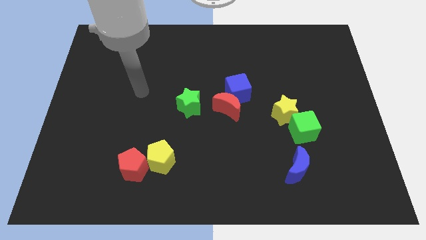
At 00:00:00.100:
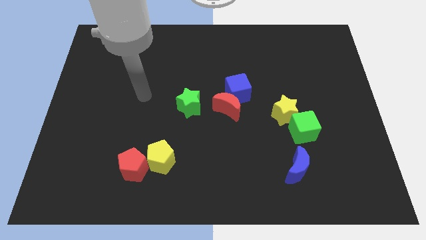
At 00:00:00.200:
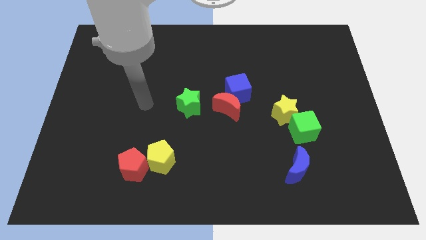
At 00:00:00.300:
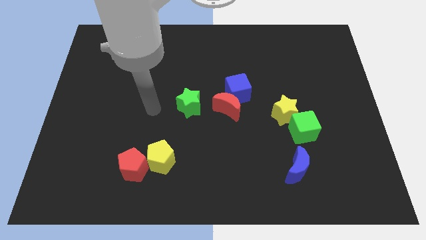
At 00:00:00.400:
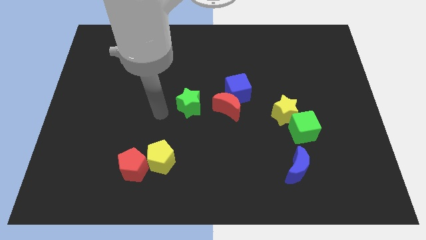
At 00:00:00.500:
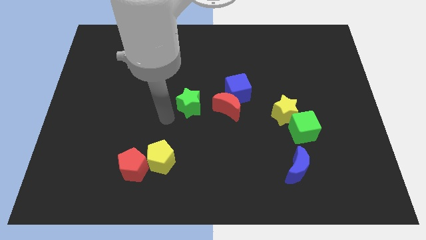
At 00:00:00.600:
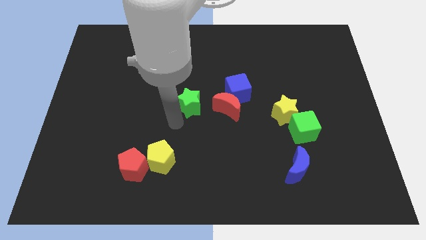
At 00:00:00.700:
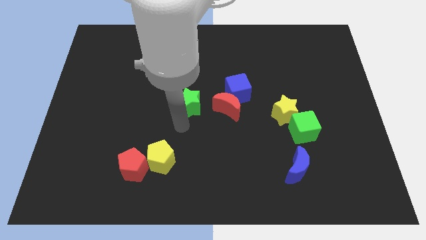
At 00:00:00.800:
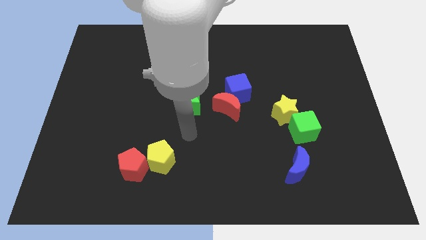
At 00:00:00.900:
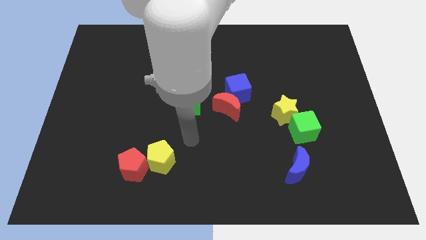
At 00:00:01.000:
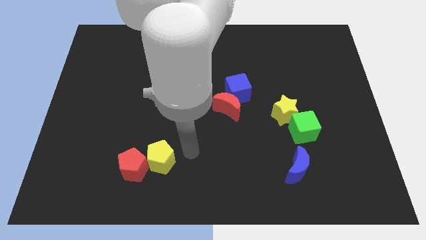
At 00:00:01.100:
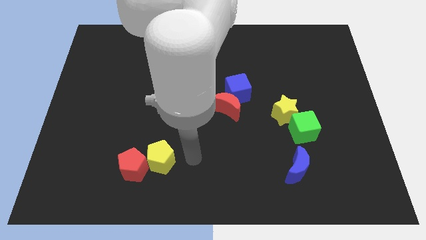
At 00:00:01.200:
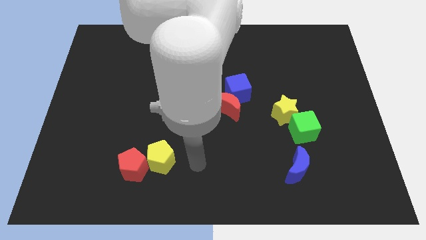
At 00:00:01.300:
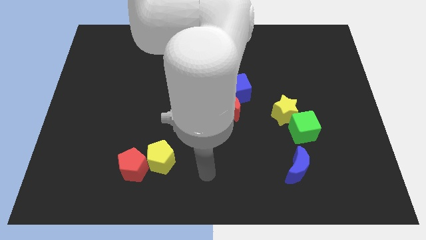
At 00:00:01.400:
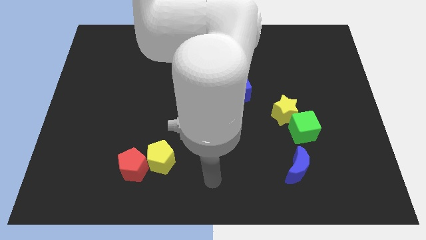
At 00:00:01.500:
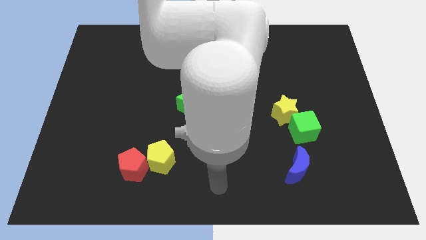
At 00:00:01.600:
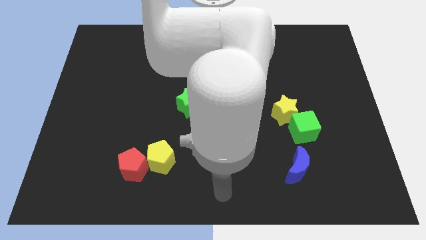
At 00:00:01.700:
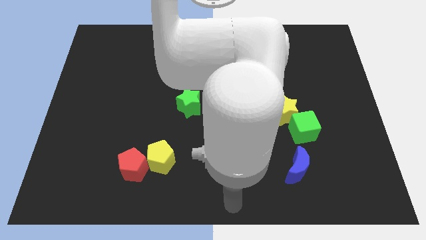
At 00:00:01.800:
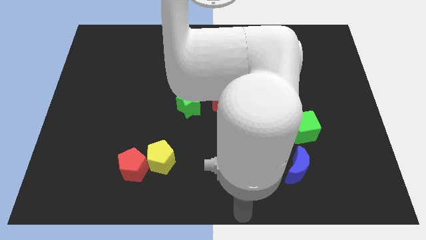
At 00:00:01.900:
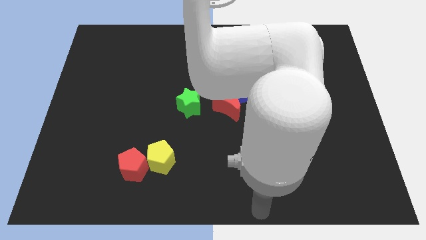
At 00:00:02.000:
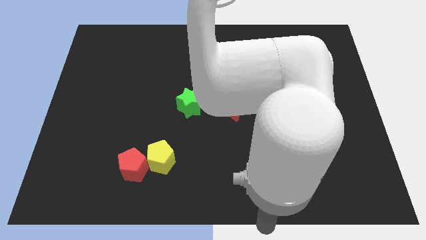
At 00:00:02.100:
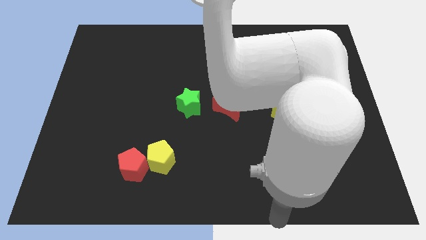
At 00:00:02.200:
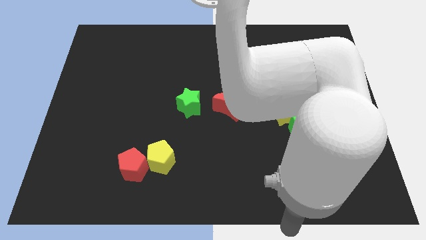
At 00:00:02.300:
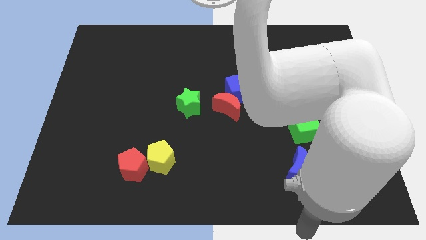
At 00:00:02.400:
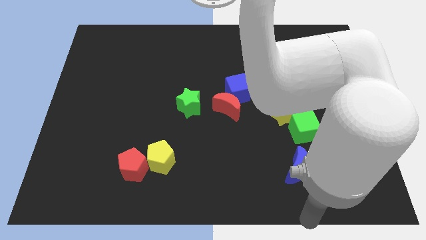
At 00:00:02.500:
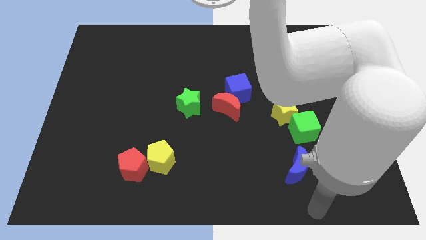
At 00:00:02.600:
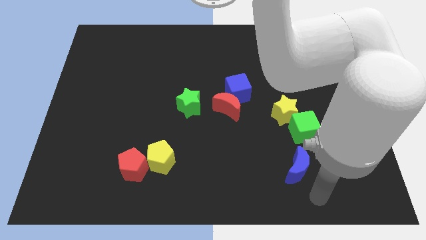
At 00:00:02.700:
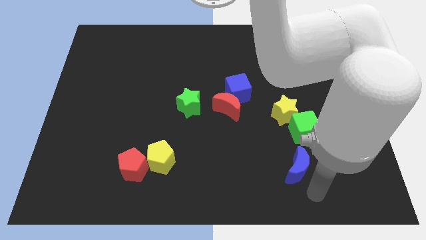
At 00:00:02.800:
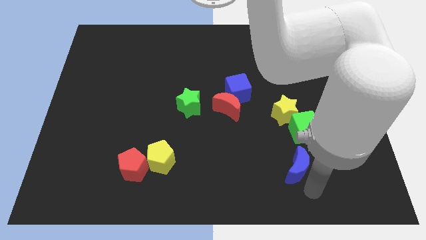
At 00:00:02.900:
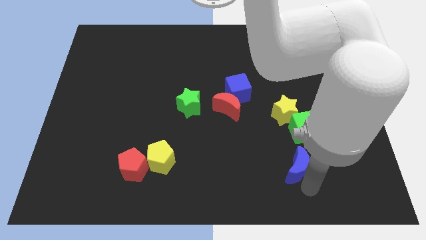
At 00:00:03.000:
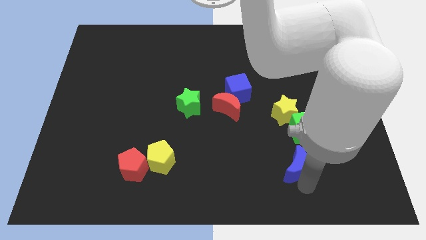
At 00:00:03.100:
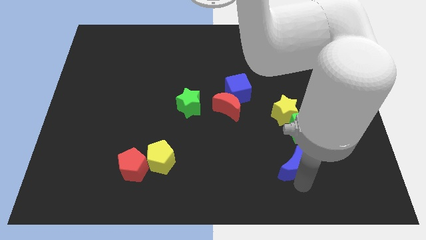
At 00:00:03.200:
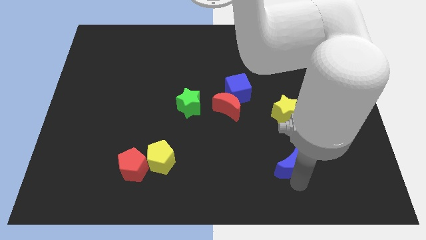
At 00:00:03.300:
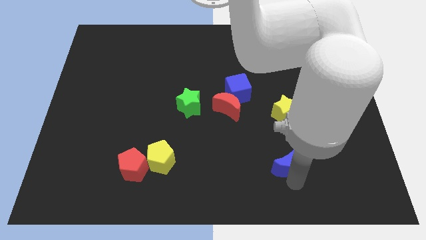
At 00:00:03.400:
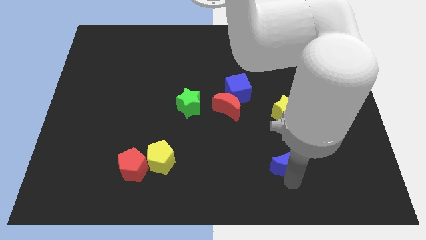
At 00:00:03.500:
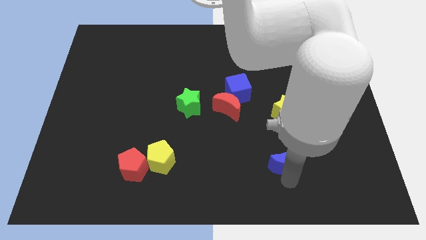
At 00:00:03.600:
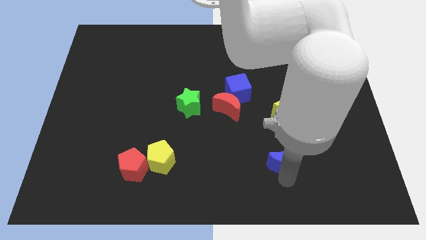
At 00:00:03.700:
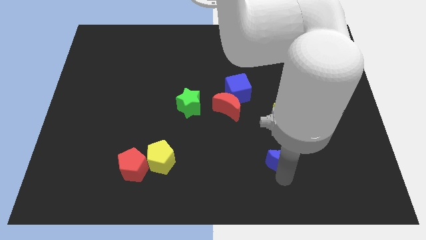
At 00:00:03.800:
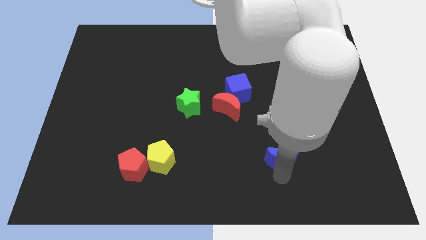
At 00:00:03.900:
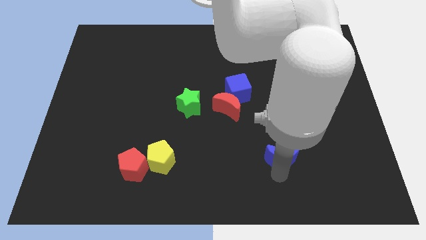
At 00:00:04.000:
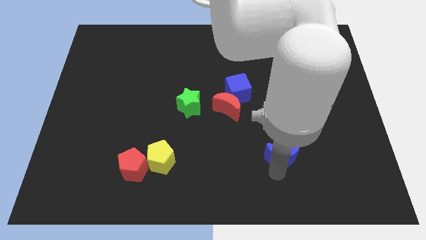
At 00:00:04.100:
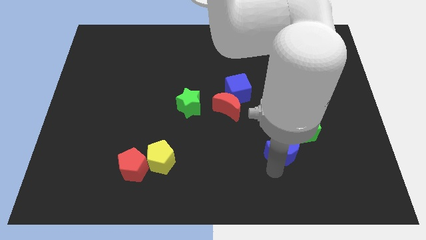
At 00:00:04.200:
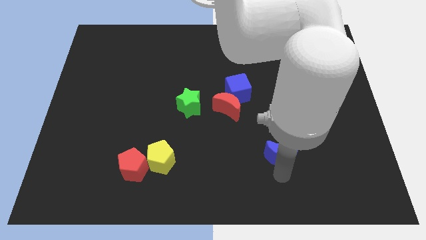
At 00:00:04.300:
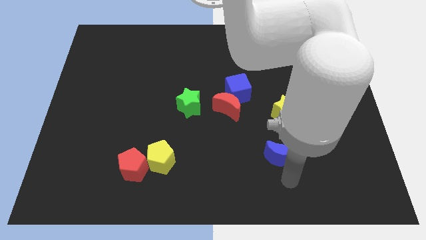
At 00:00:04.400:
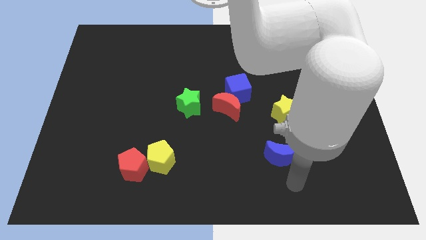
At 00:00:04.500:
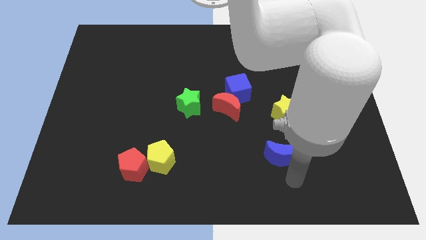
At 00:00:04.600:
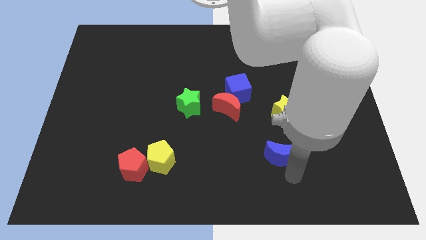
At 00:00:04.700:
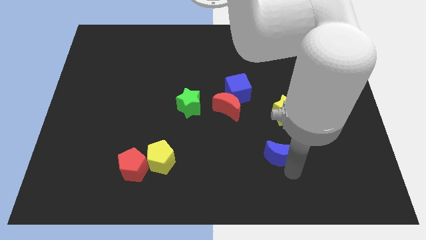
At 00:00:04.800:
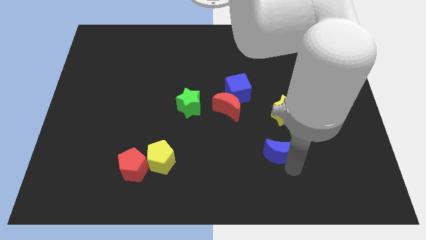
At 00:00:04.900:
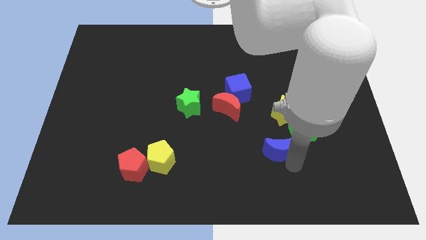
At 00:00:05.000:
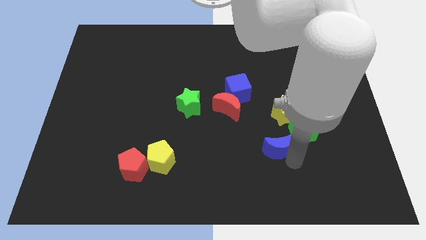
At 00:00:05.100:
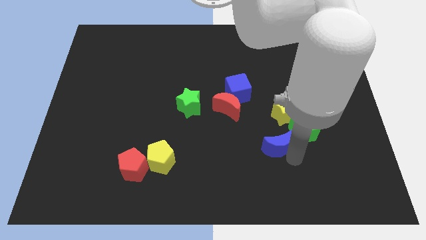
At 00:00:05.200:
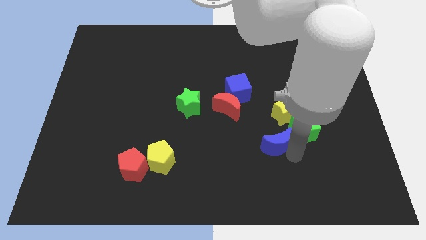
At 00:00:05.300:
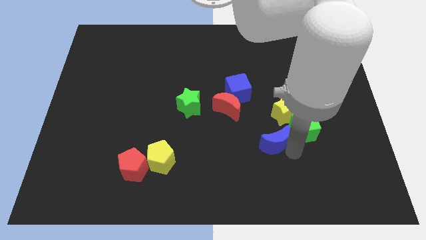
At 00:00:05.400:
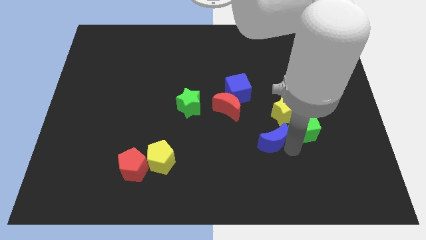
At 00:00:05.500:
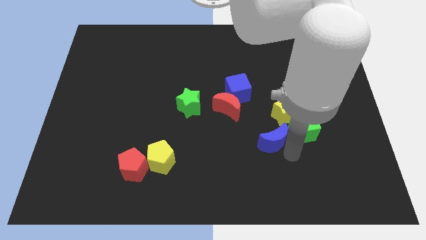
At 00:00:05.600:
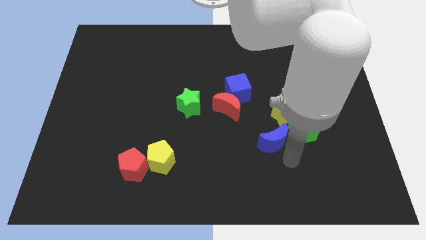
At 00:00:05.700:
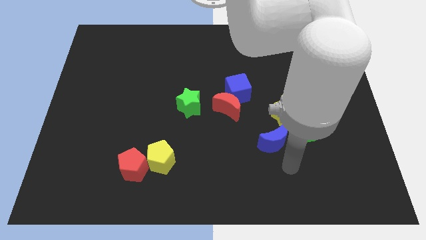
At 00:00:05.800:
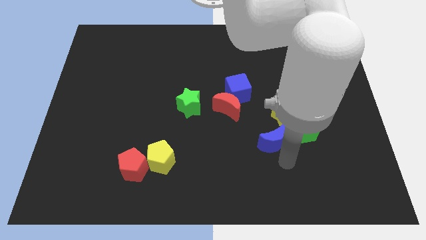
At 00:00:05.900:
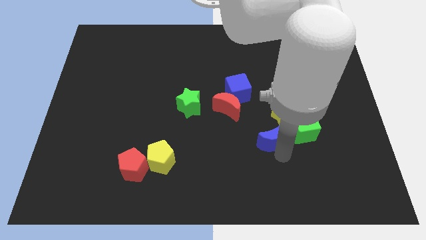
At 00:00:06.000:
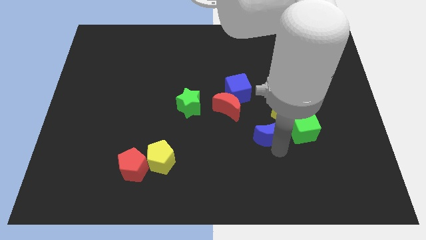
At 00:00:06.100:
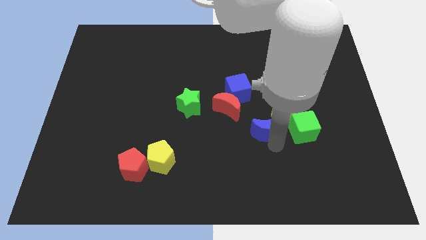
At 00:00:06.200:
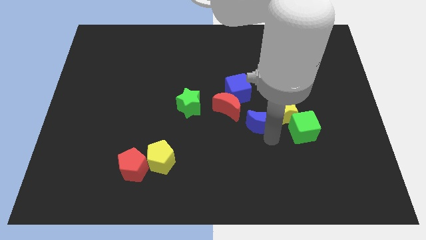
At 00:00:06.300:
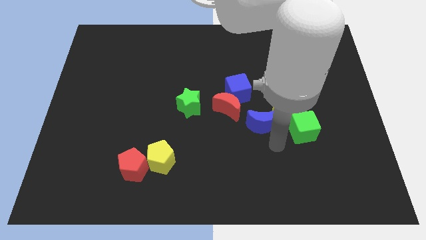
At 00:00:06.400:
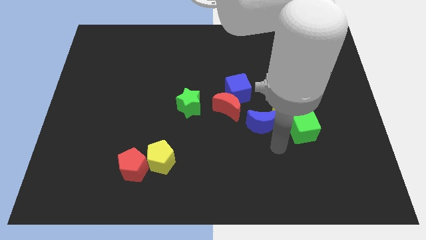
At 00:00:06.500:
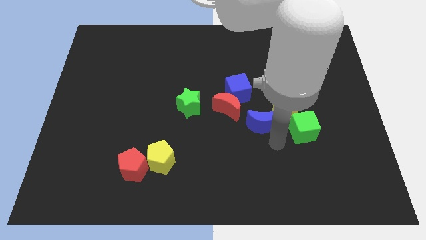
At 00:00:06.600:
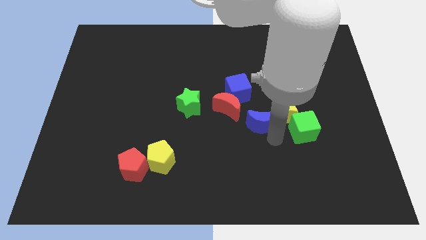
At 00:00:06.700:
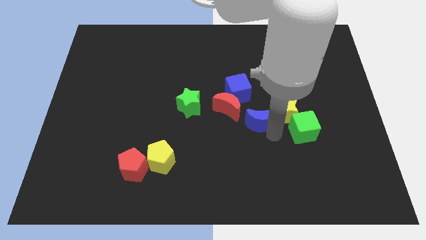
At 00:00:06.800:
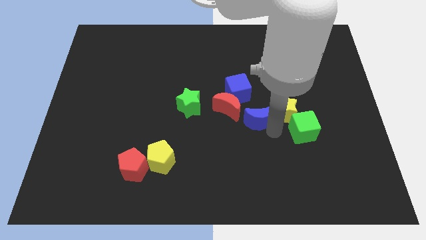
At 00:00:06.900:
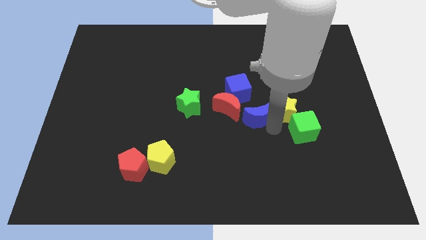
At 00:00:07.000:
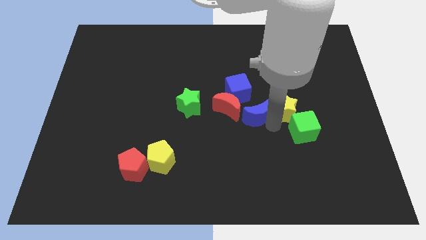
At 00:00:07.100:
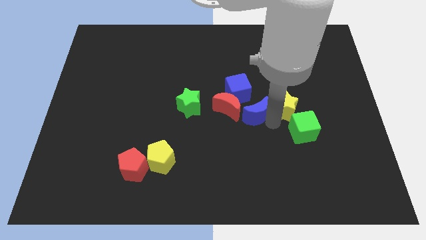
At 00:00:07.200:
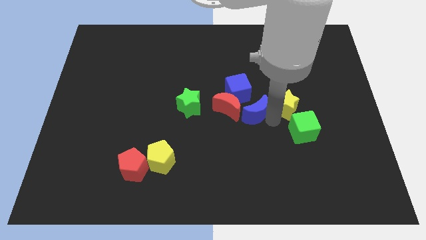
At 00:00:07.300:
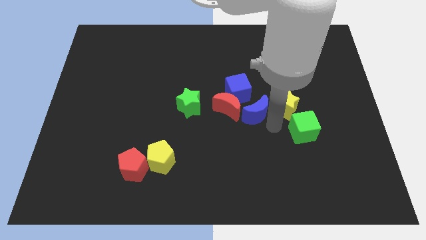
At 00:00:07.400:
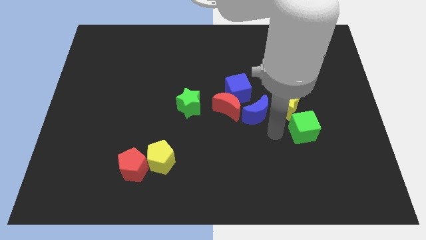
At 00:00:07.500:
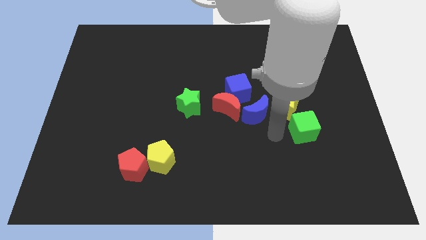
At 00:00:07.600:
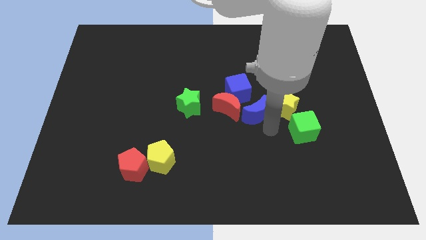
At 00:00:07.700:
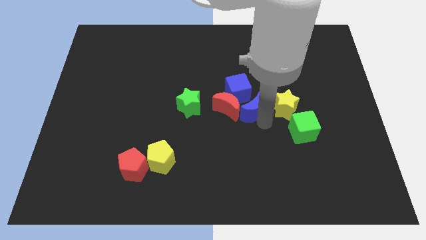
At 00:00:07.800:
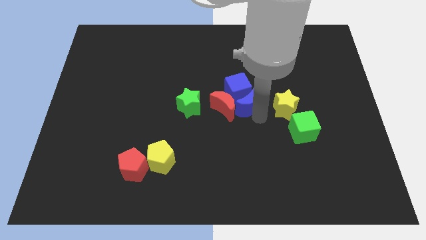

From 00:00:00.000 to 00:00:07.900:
push the blue moon close to the blue cube
